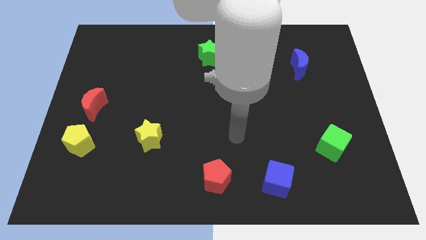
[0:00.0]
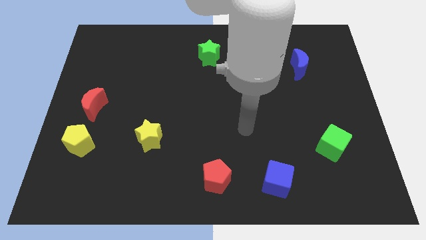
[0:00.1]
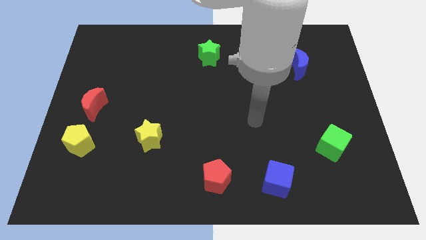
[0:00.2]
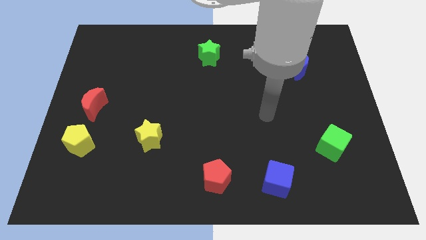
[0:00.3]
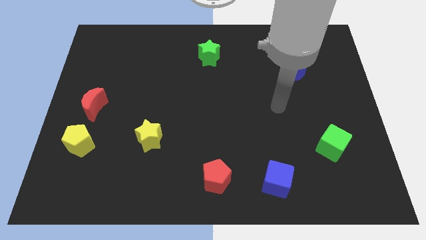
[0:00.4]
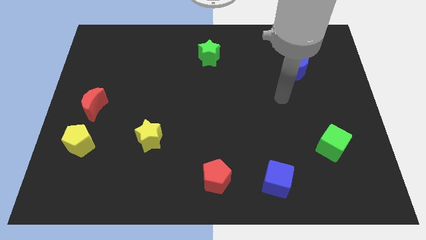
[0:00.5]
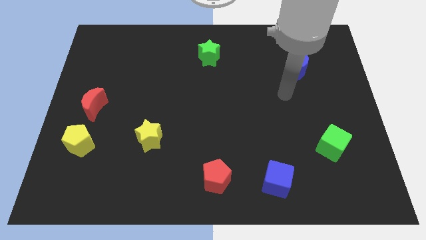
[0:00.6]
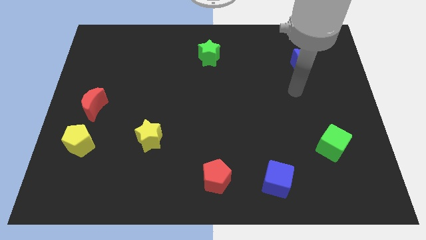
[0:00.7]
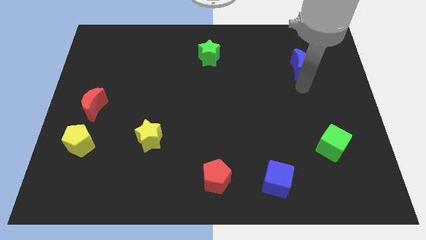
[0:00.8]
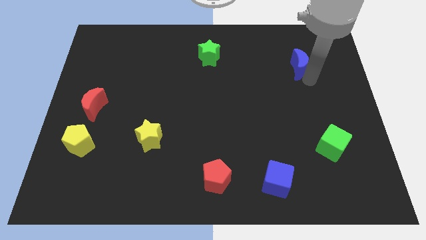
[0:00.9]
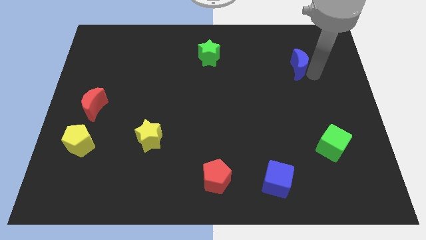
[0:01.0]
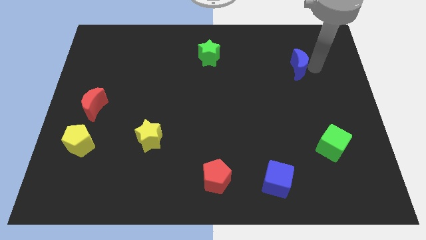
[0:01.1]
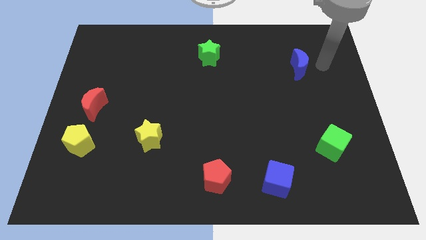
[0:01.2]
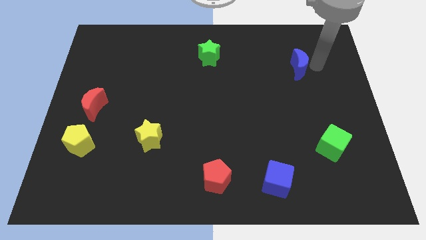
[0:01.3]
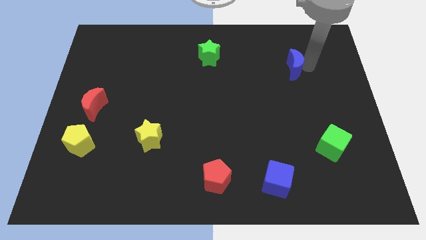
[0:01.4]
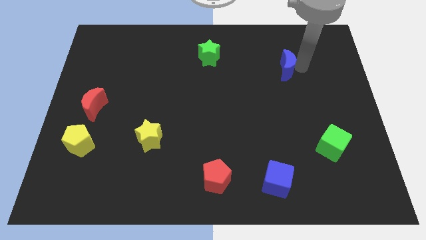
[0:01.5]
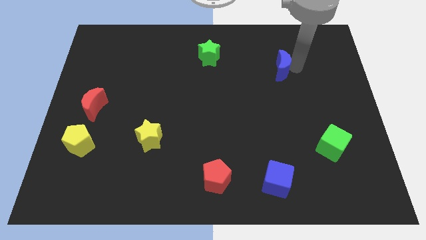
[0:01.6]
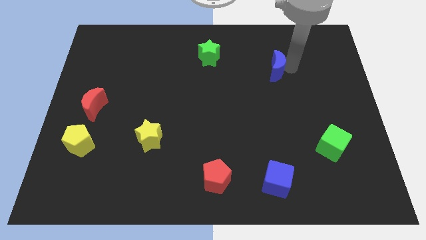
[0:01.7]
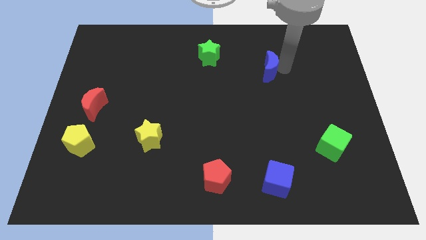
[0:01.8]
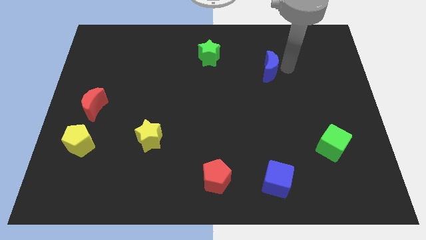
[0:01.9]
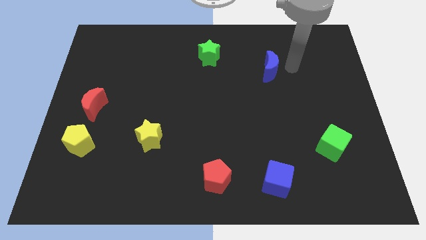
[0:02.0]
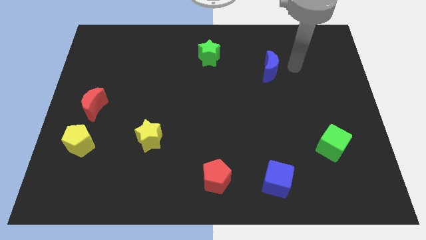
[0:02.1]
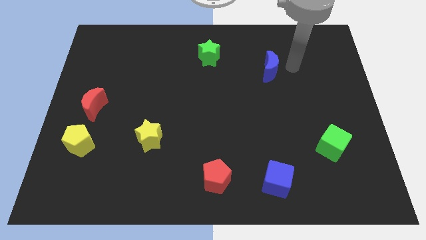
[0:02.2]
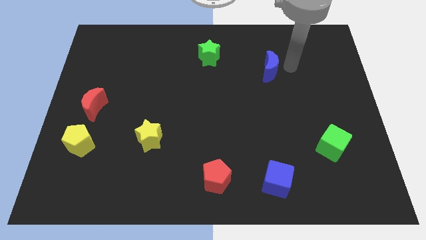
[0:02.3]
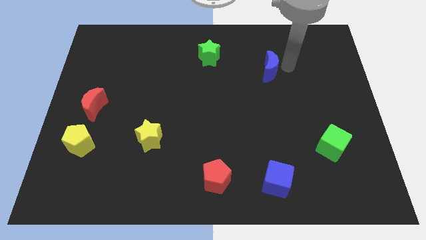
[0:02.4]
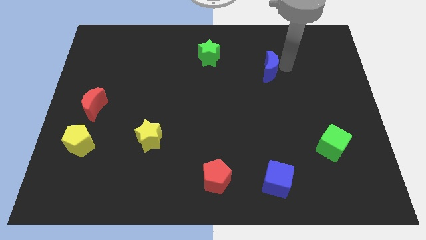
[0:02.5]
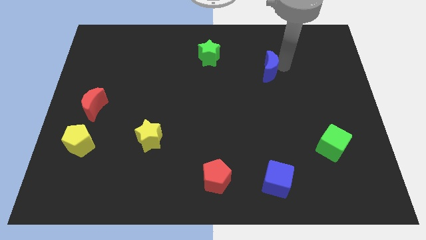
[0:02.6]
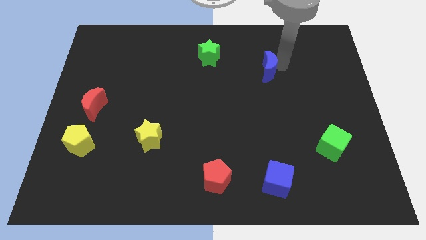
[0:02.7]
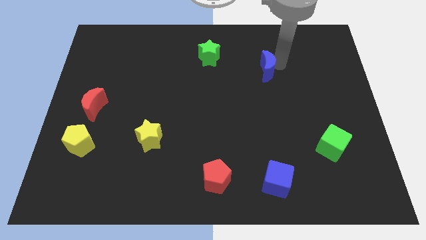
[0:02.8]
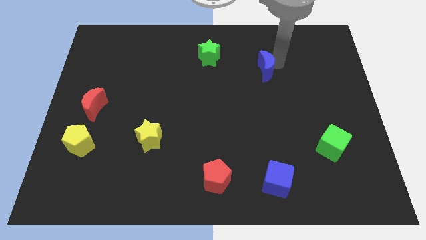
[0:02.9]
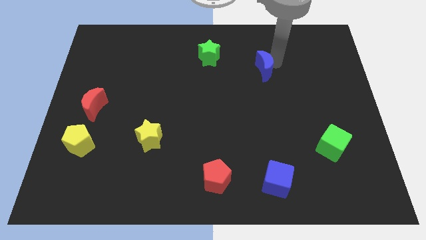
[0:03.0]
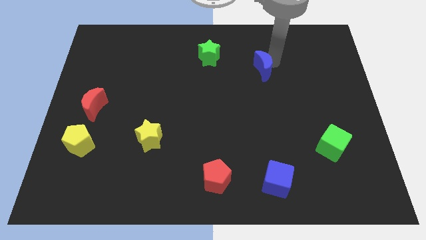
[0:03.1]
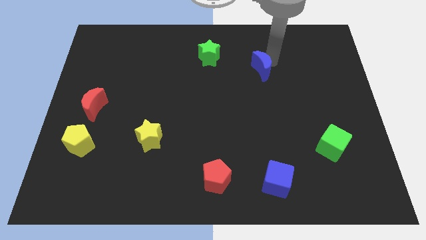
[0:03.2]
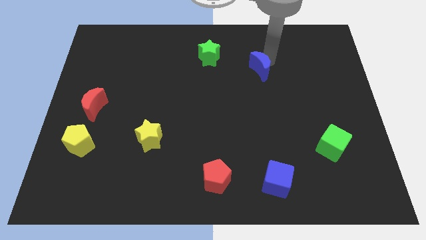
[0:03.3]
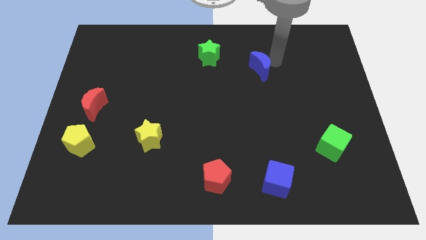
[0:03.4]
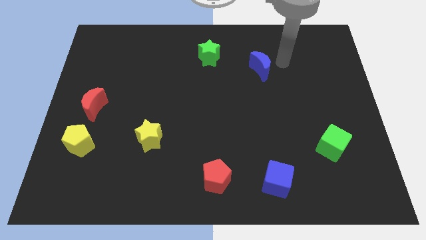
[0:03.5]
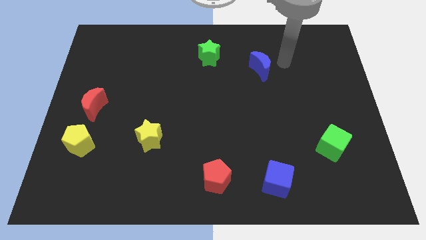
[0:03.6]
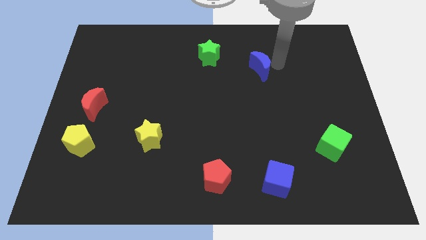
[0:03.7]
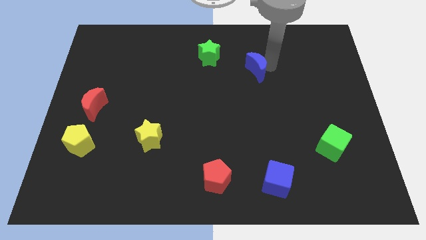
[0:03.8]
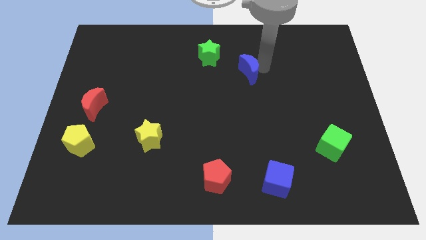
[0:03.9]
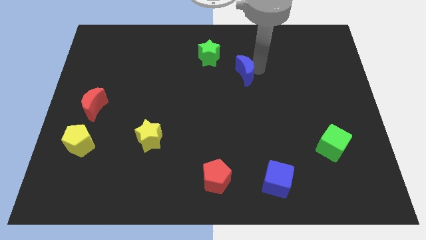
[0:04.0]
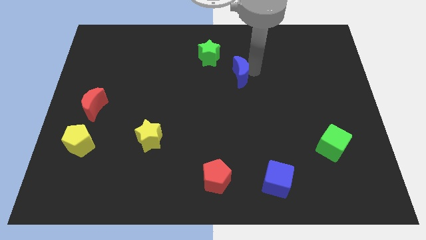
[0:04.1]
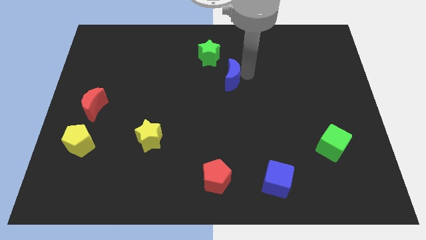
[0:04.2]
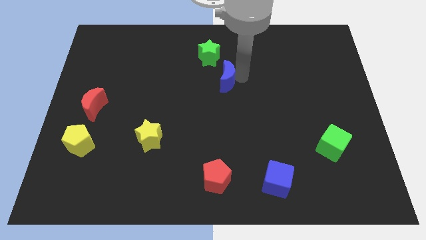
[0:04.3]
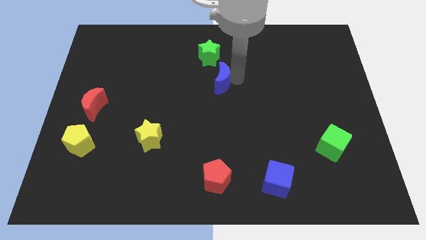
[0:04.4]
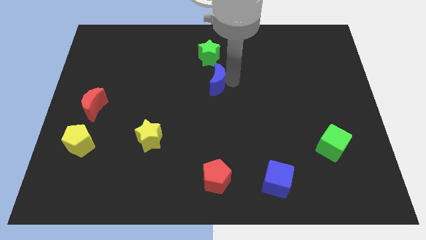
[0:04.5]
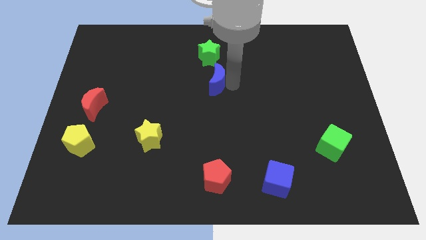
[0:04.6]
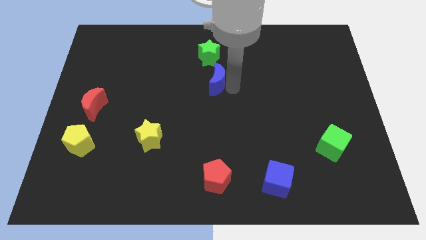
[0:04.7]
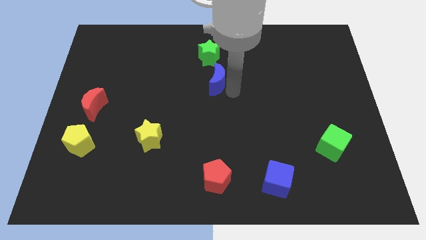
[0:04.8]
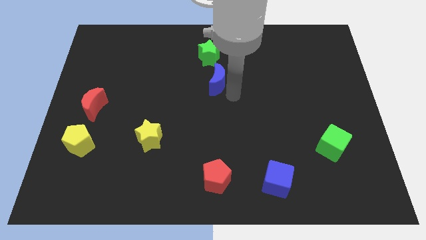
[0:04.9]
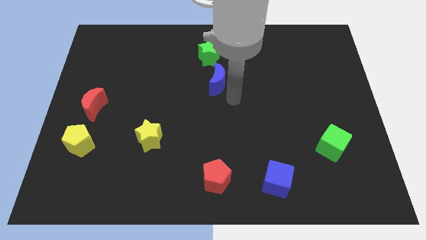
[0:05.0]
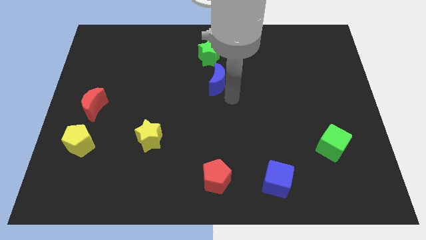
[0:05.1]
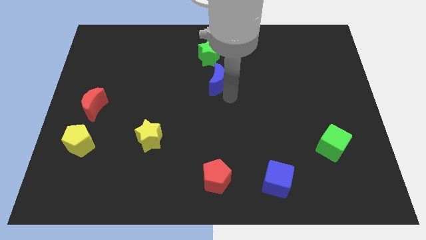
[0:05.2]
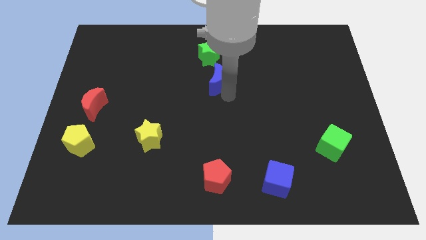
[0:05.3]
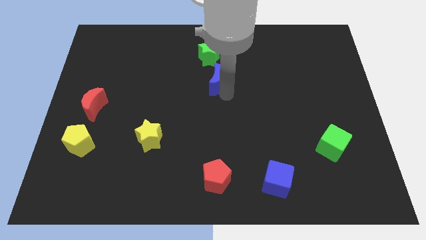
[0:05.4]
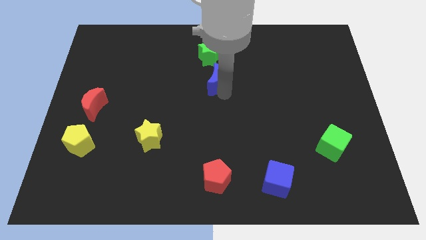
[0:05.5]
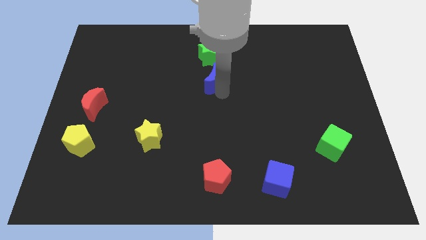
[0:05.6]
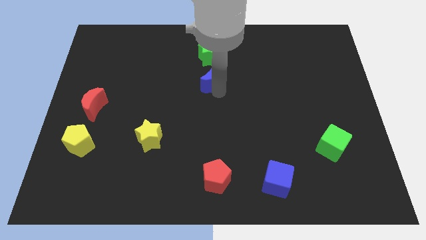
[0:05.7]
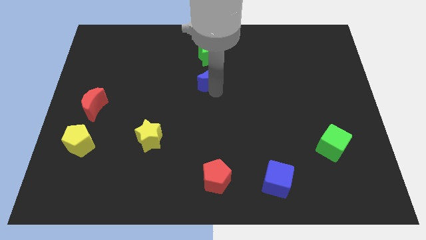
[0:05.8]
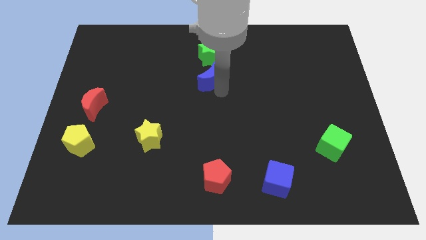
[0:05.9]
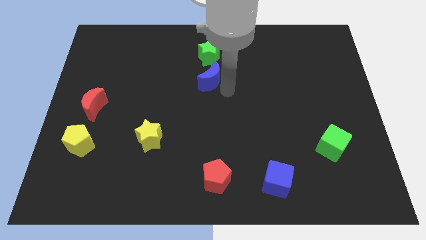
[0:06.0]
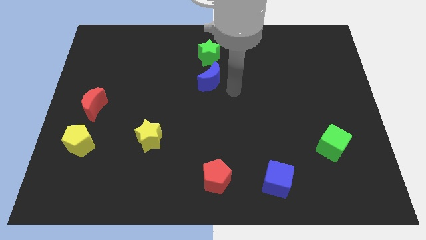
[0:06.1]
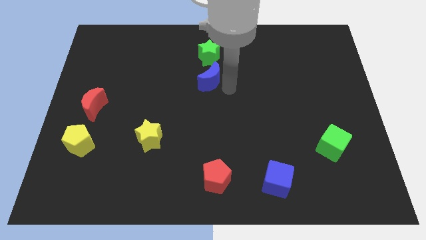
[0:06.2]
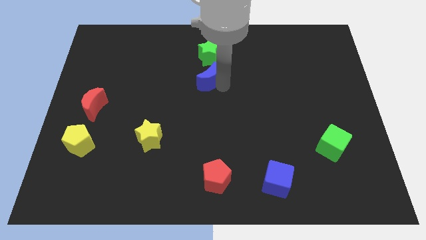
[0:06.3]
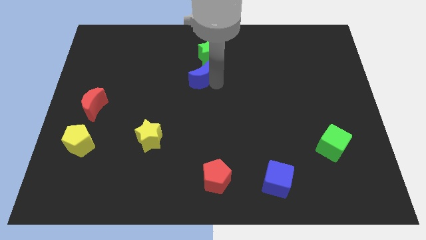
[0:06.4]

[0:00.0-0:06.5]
slide the blue moon to the bottom left side of the green star

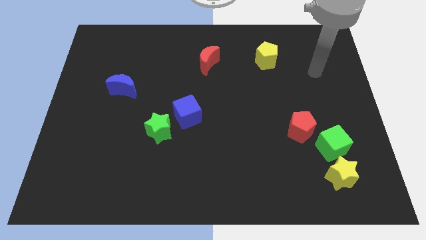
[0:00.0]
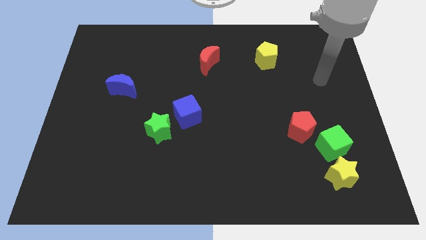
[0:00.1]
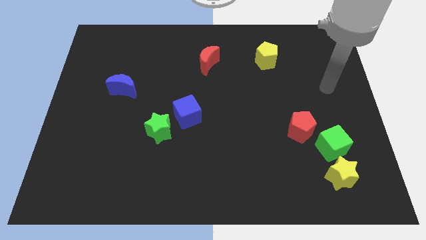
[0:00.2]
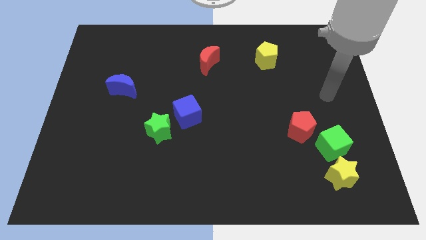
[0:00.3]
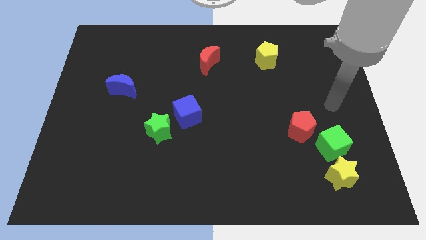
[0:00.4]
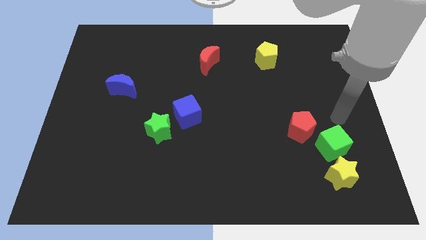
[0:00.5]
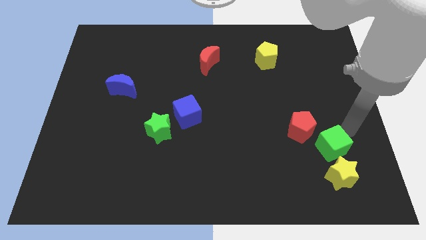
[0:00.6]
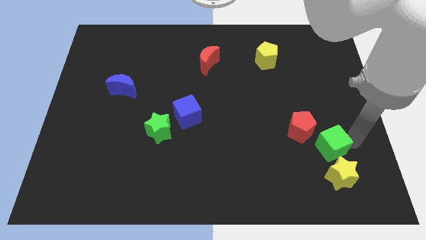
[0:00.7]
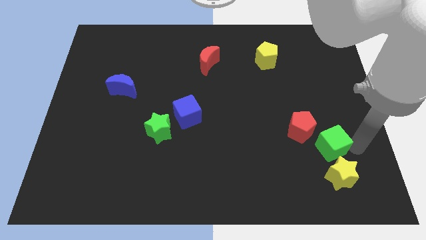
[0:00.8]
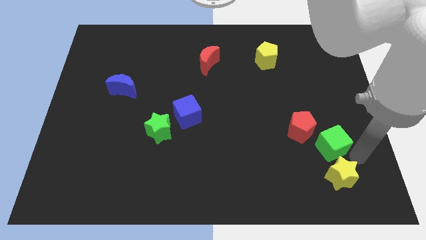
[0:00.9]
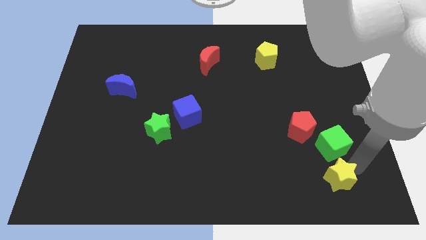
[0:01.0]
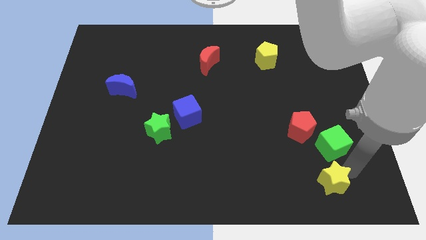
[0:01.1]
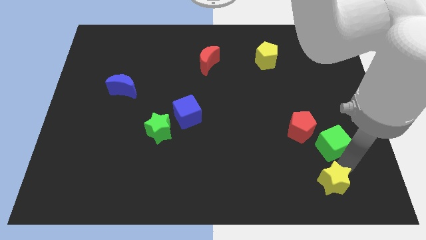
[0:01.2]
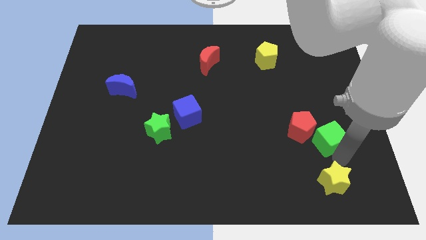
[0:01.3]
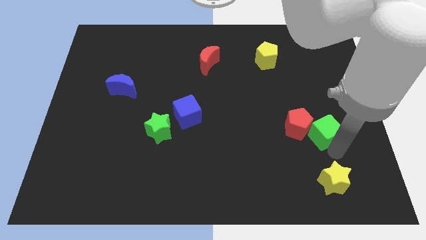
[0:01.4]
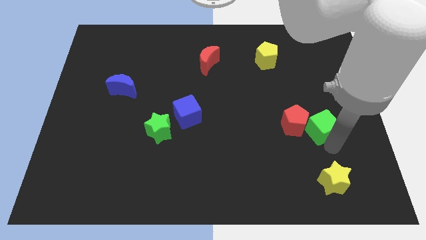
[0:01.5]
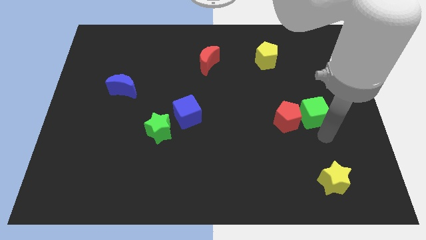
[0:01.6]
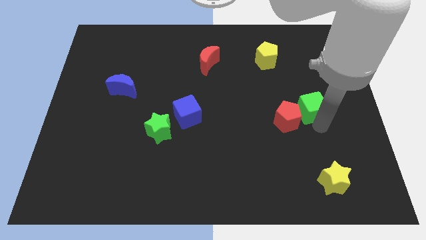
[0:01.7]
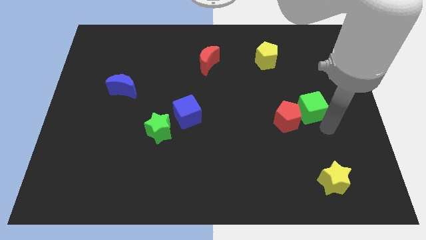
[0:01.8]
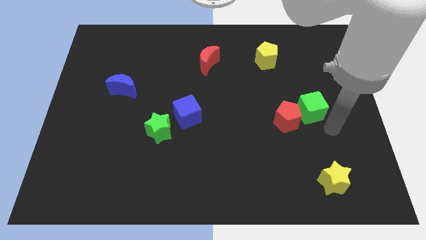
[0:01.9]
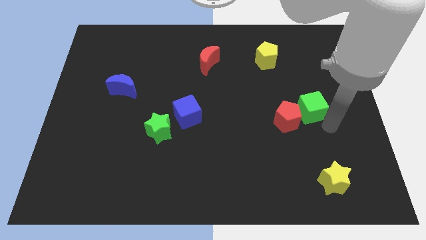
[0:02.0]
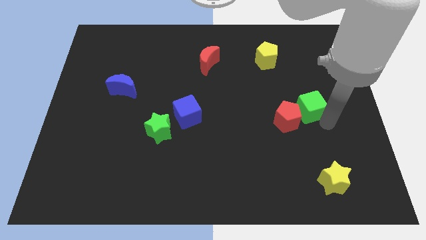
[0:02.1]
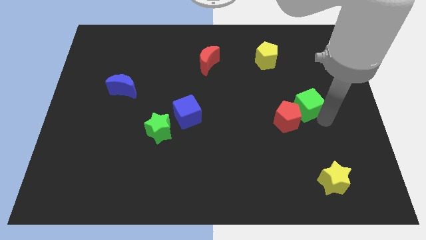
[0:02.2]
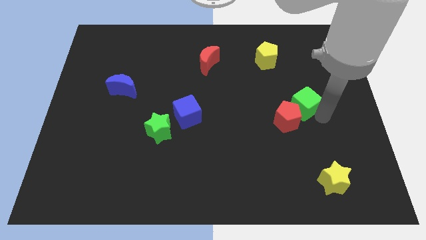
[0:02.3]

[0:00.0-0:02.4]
slide the green cube to the top side of the red pentagon
